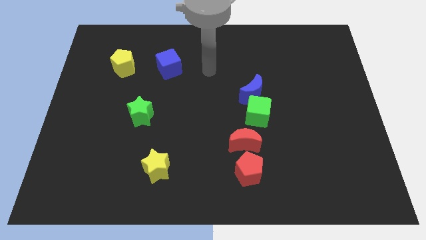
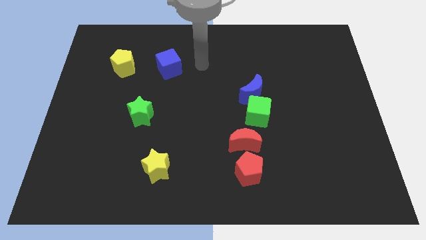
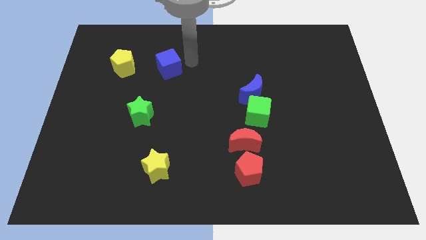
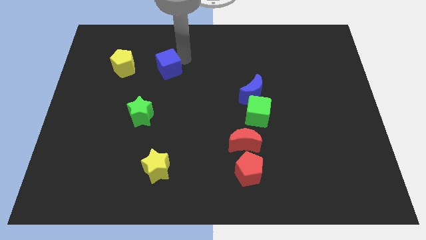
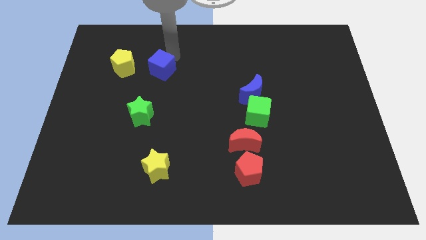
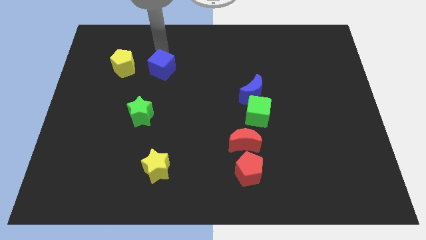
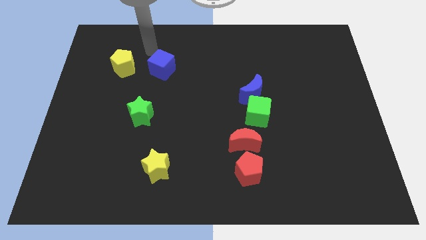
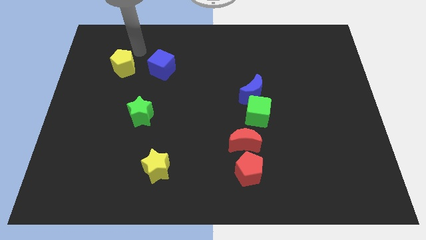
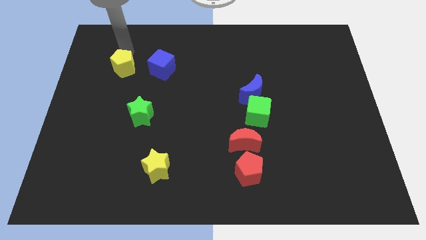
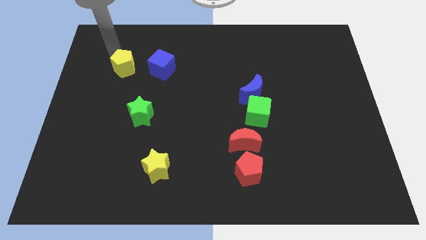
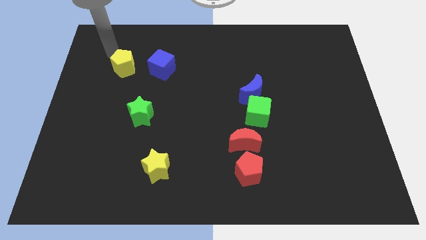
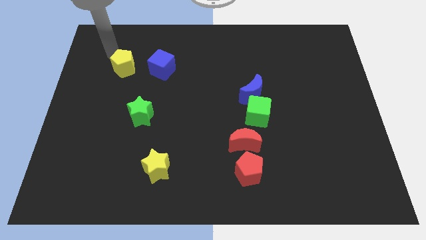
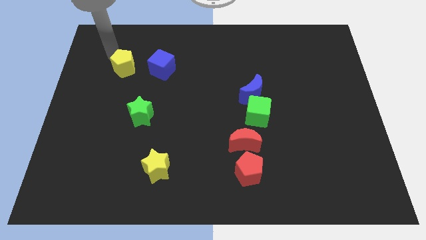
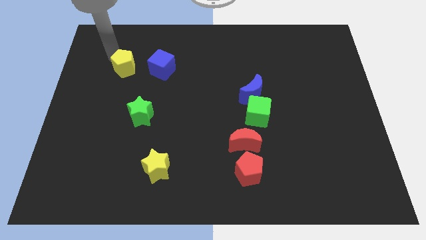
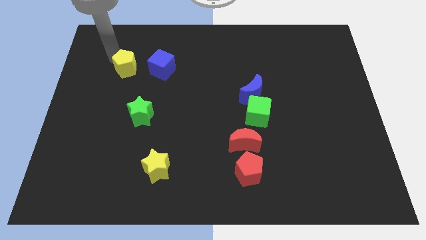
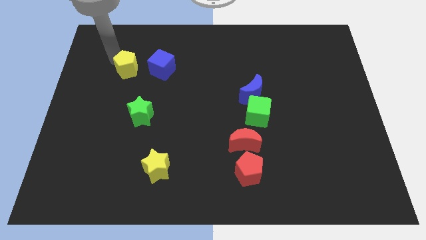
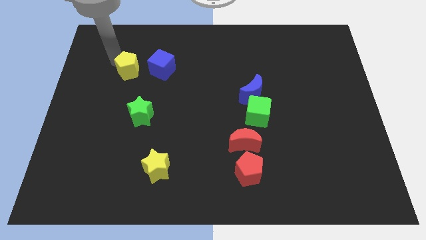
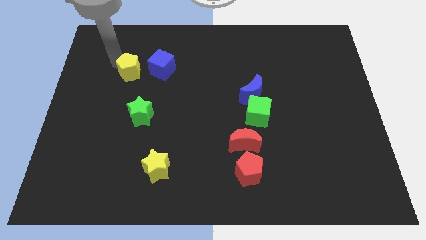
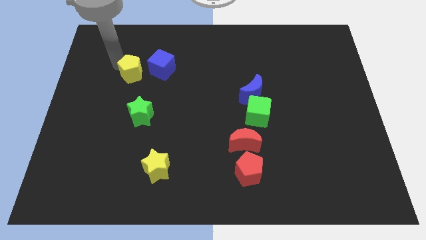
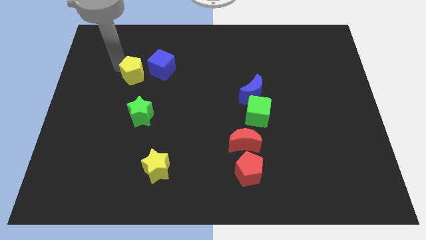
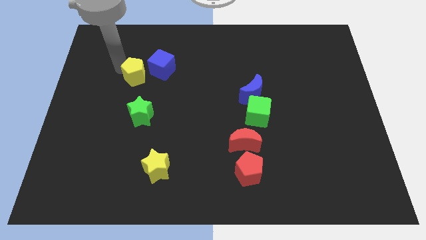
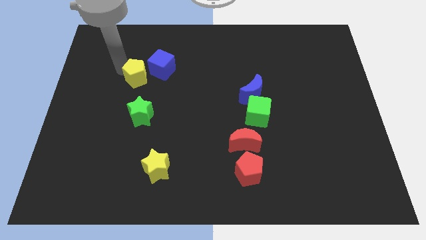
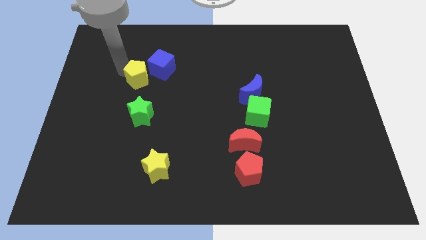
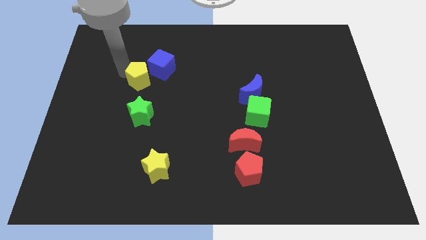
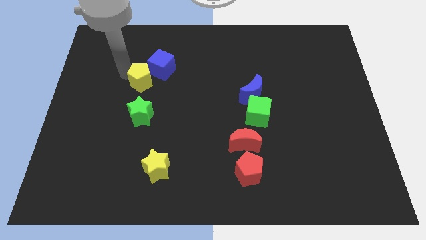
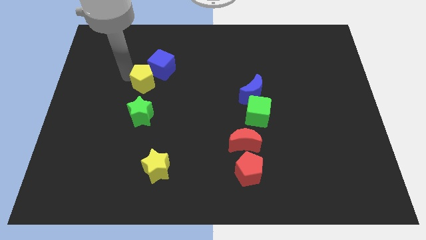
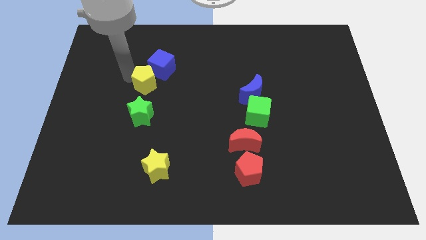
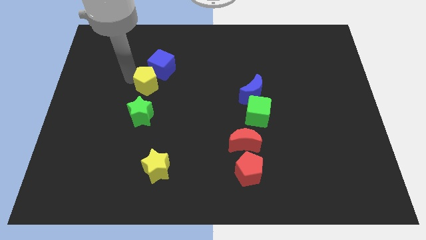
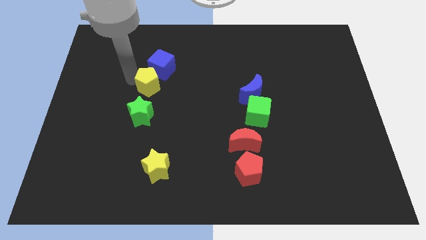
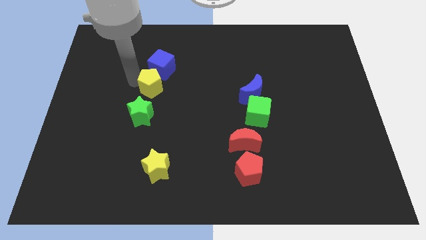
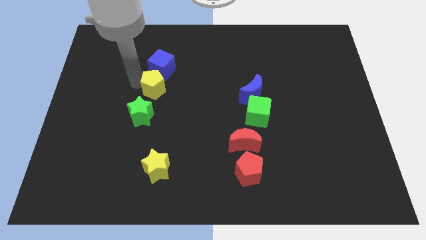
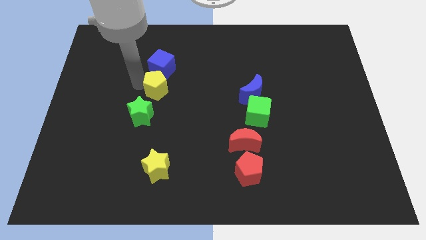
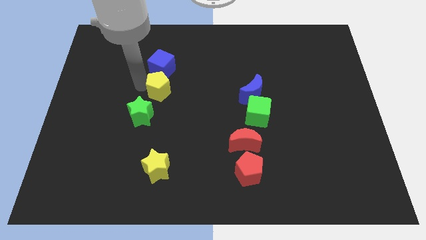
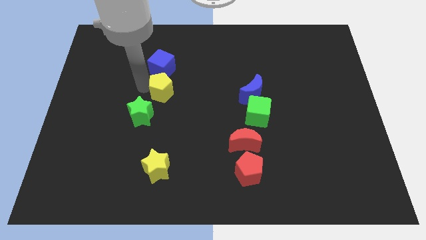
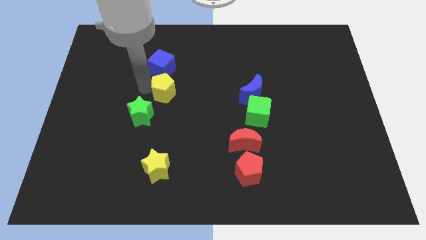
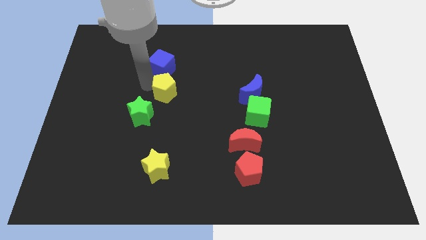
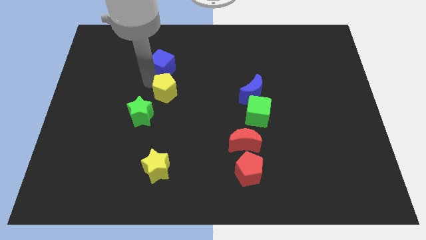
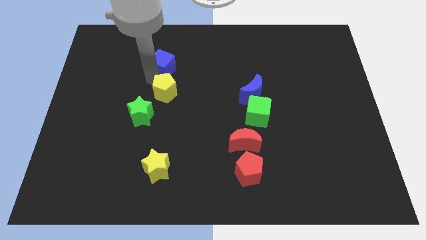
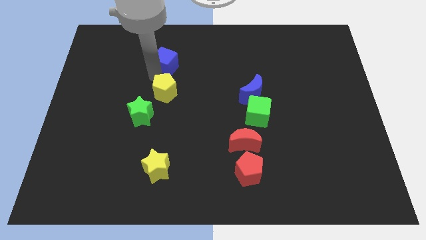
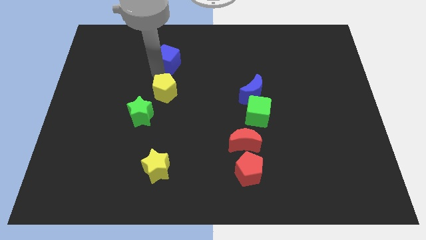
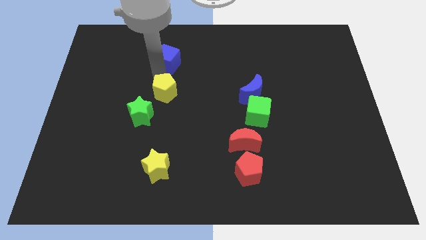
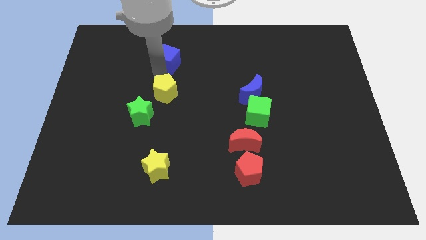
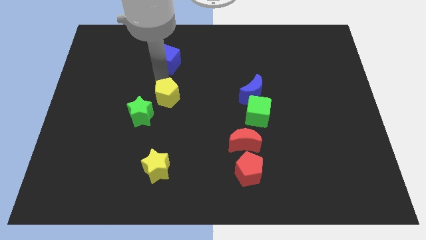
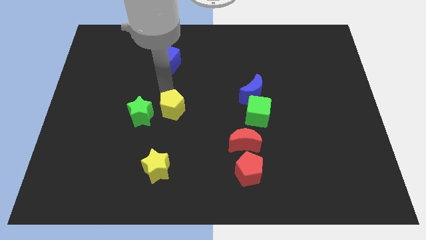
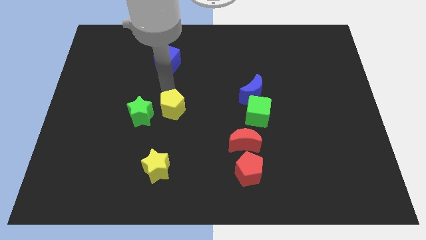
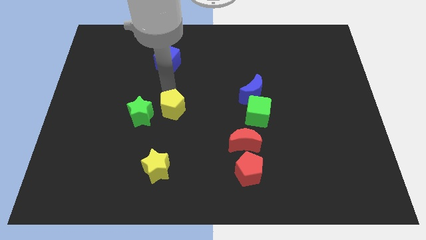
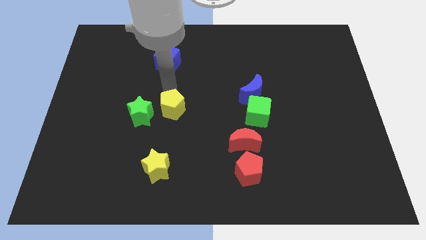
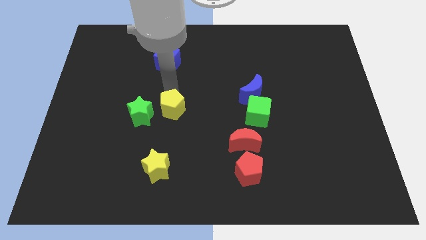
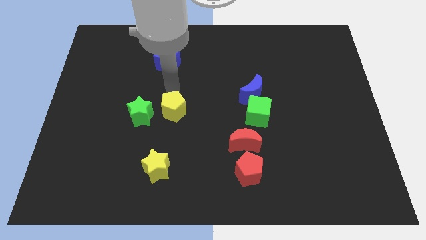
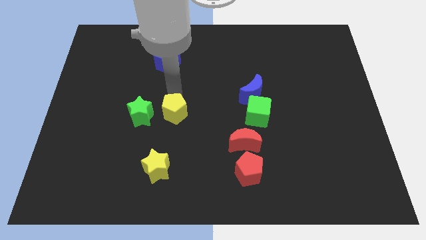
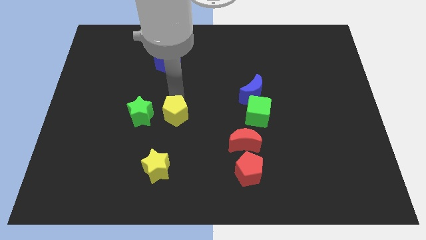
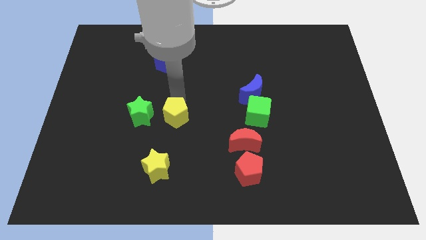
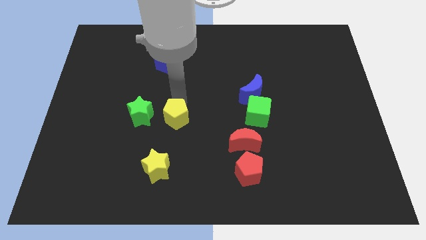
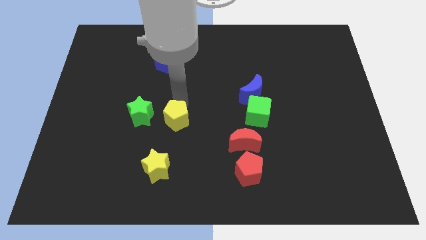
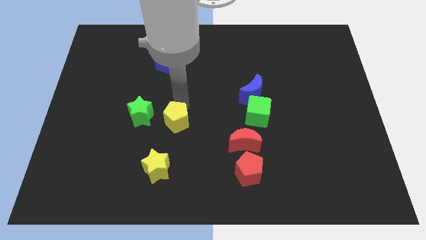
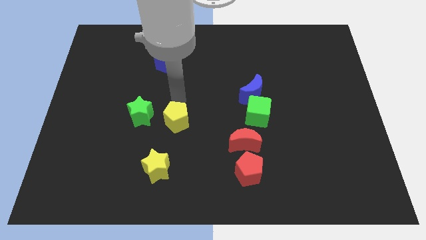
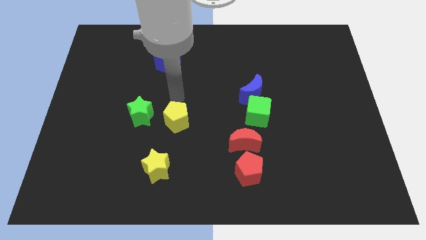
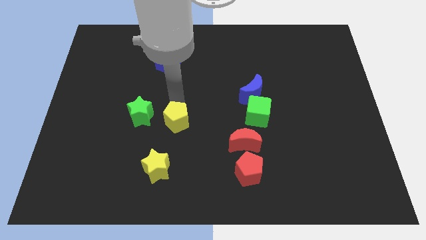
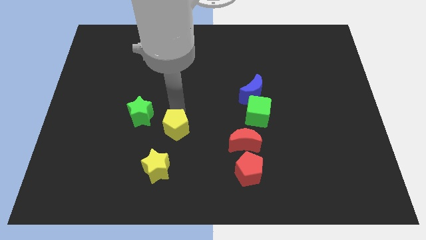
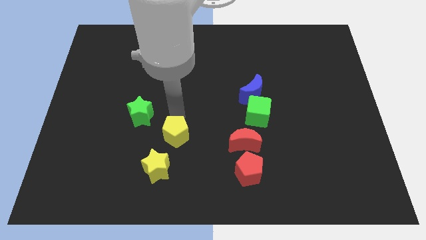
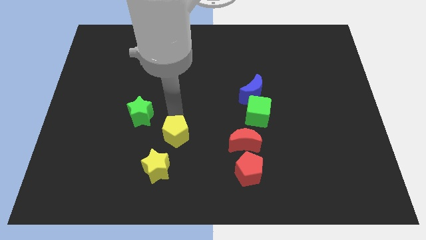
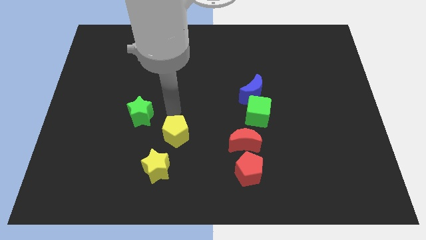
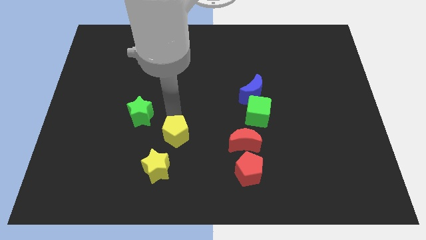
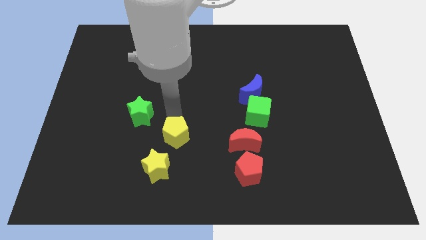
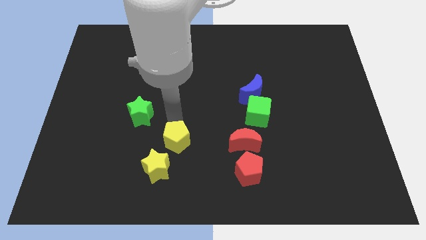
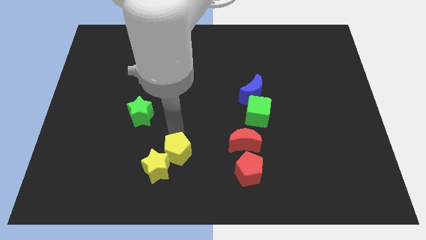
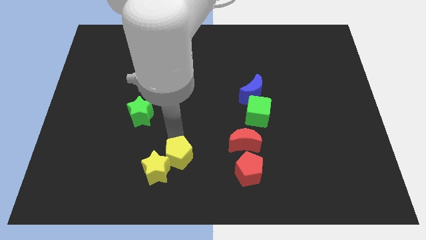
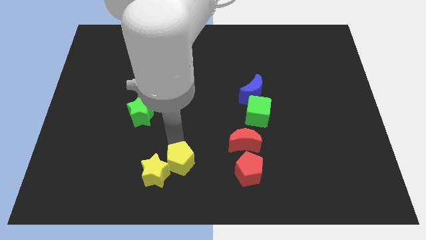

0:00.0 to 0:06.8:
put the yellow pentagon to the bottom
